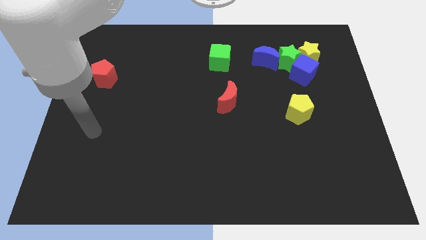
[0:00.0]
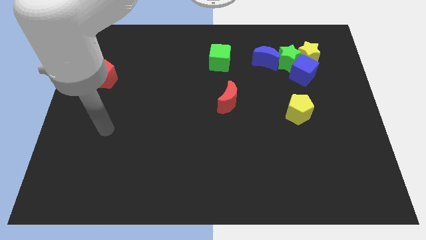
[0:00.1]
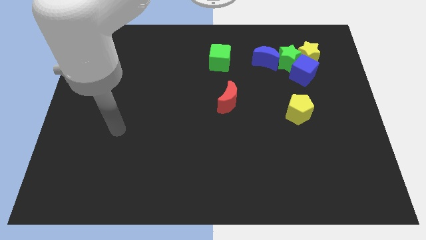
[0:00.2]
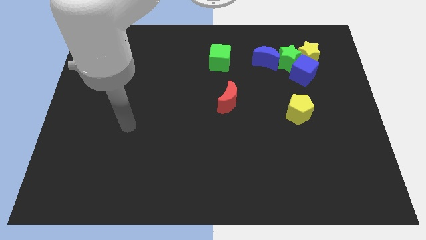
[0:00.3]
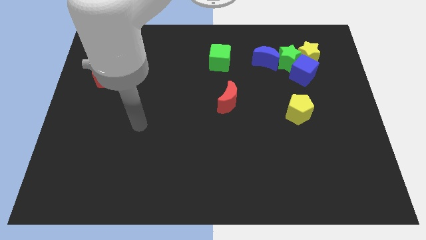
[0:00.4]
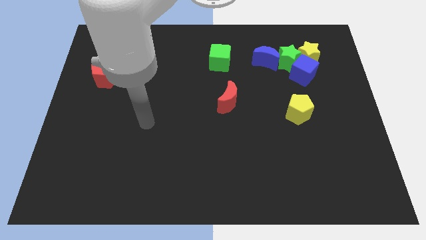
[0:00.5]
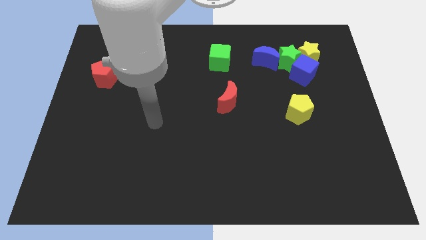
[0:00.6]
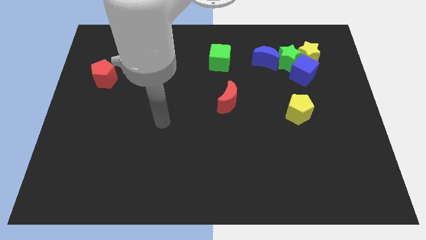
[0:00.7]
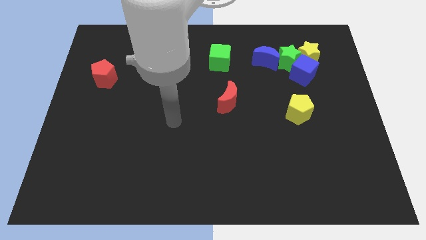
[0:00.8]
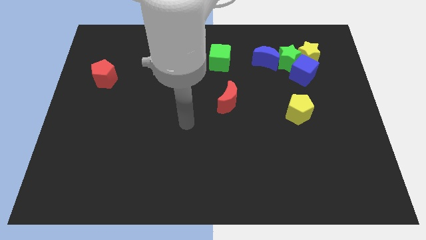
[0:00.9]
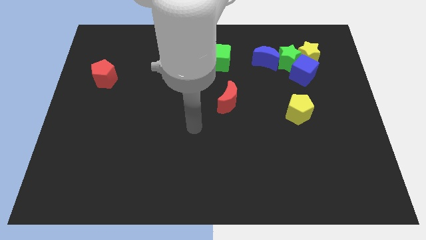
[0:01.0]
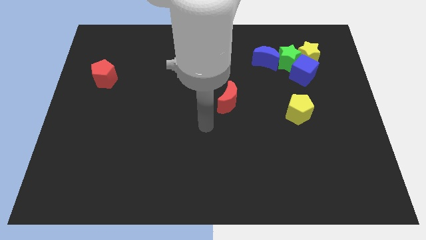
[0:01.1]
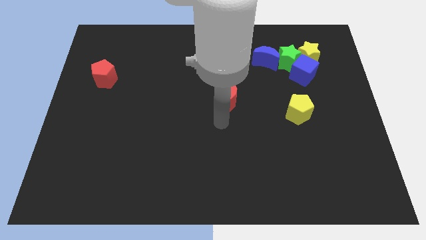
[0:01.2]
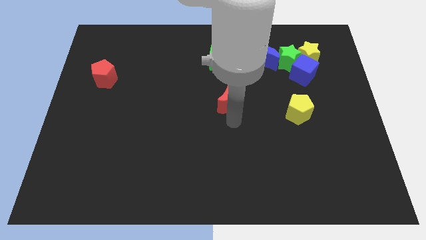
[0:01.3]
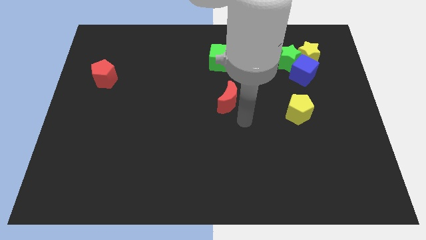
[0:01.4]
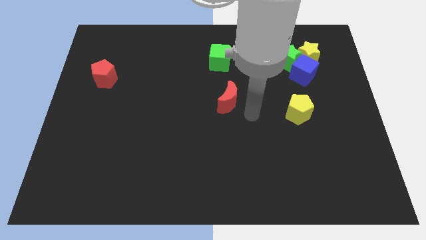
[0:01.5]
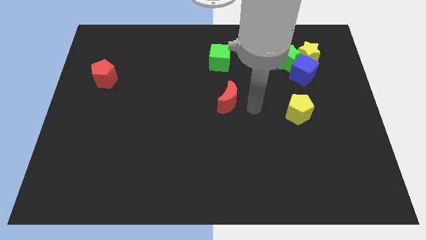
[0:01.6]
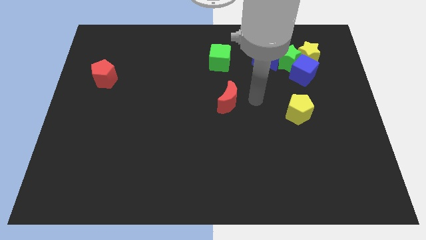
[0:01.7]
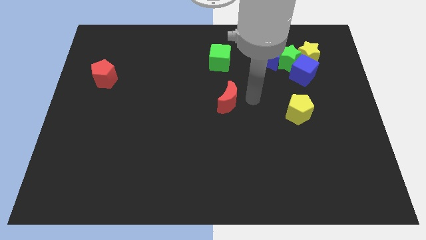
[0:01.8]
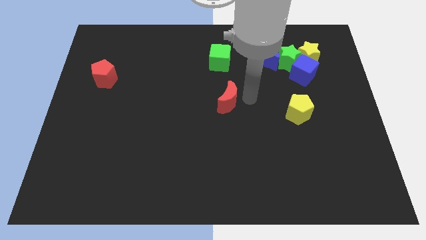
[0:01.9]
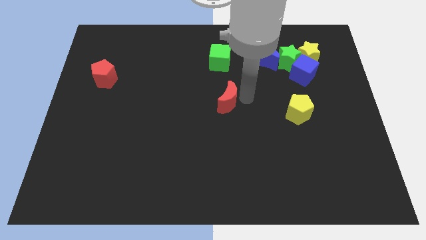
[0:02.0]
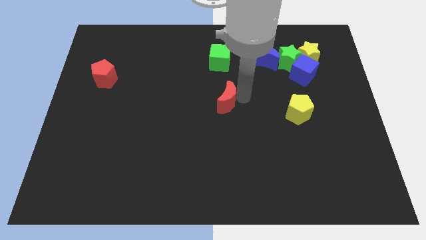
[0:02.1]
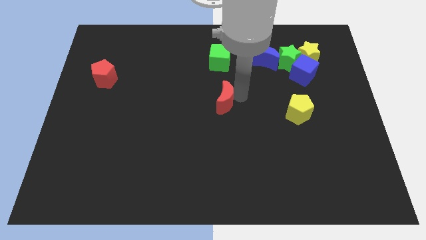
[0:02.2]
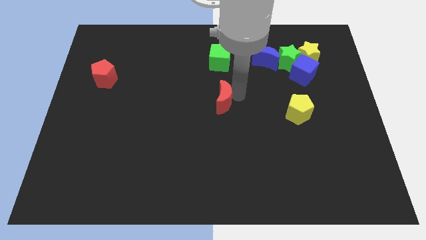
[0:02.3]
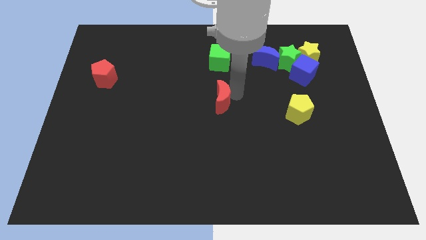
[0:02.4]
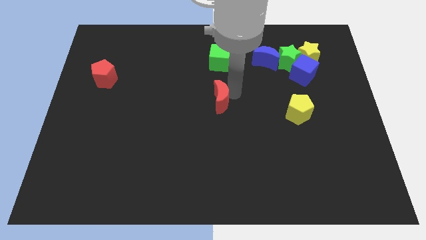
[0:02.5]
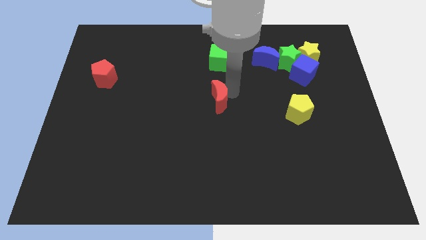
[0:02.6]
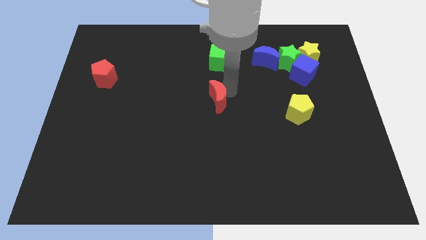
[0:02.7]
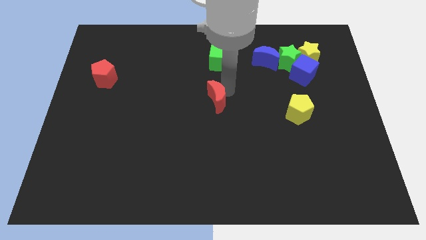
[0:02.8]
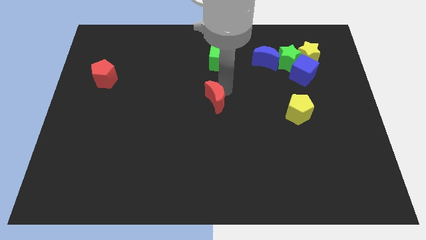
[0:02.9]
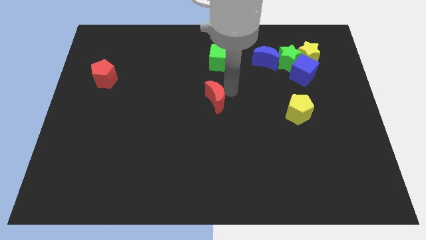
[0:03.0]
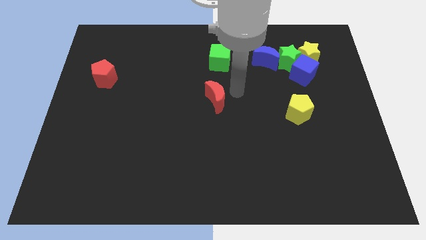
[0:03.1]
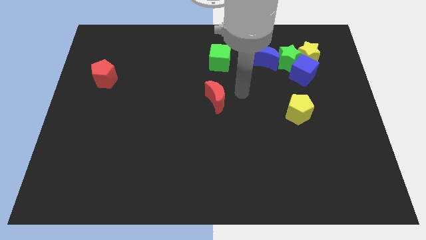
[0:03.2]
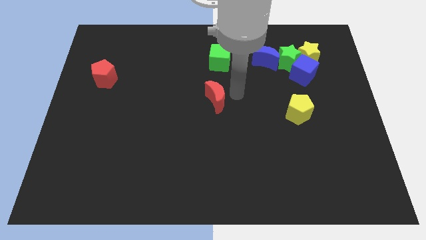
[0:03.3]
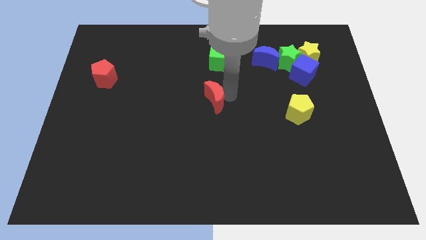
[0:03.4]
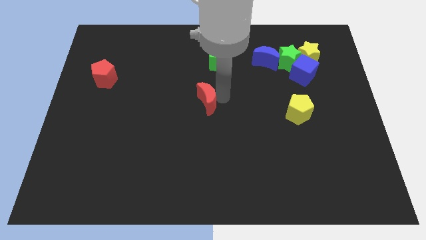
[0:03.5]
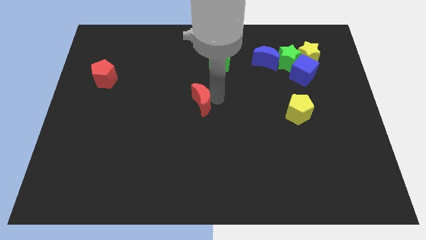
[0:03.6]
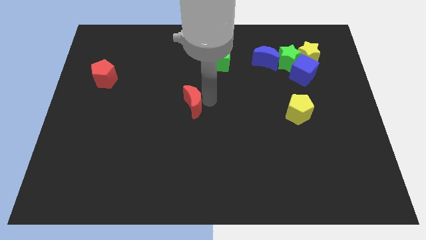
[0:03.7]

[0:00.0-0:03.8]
slide the red moon left a little bit

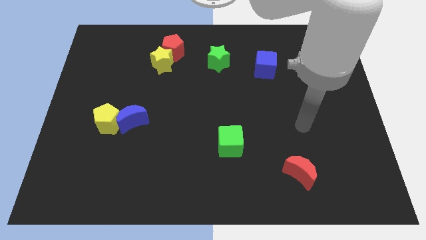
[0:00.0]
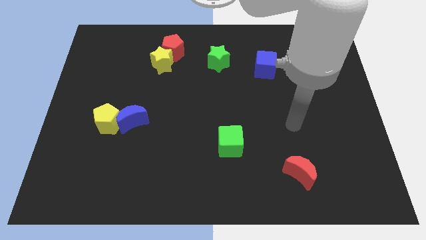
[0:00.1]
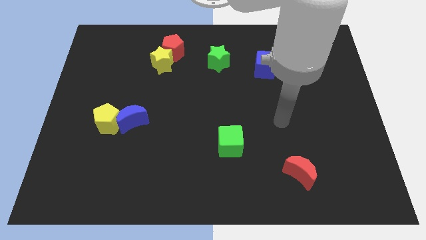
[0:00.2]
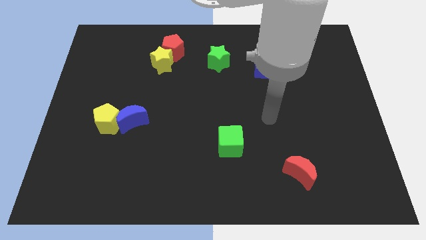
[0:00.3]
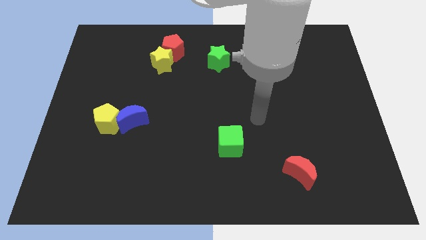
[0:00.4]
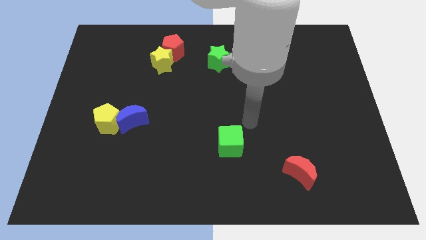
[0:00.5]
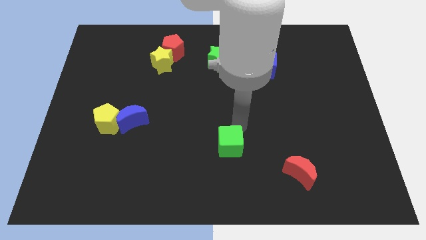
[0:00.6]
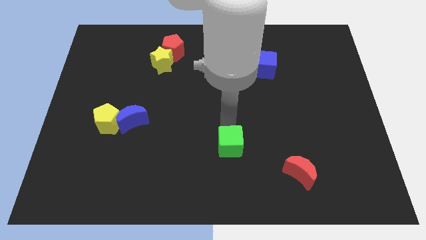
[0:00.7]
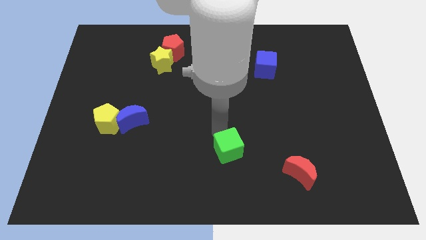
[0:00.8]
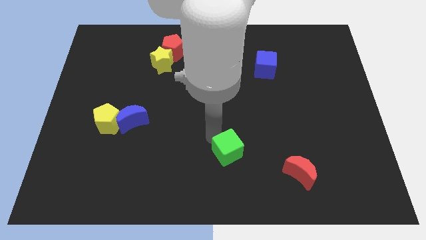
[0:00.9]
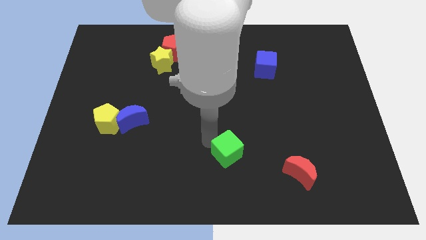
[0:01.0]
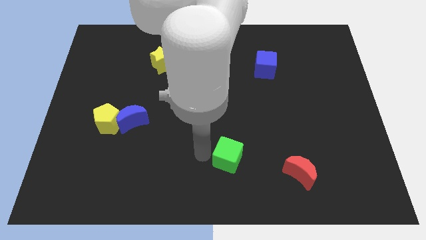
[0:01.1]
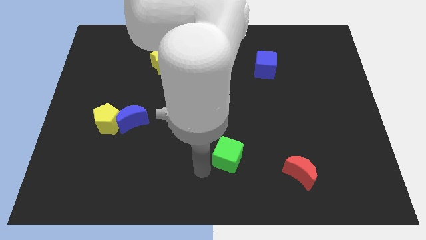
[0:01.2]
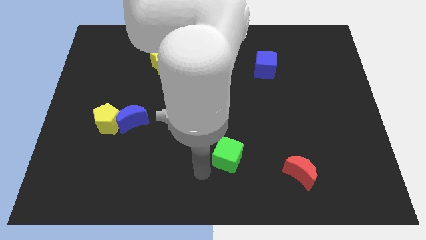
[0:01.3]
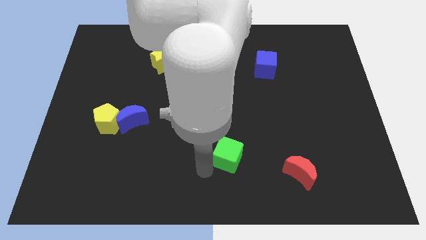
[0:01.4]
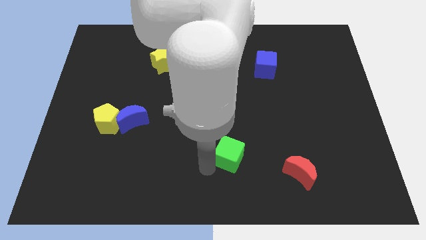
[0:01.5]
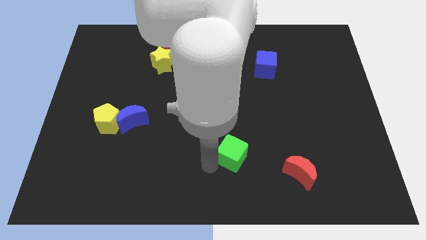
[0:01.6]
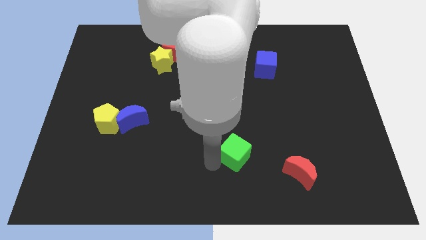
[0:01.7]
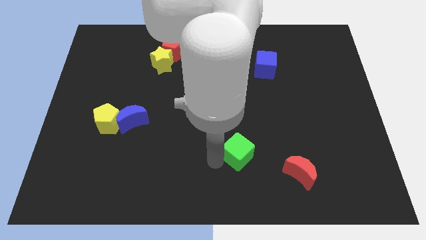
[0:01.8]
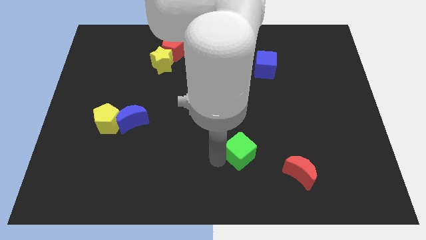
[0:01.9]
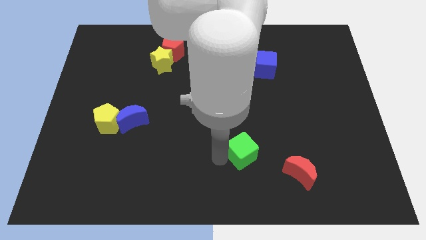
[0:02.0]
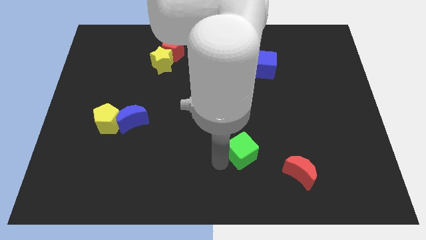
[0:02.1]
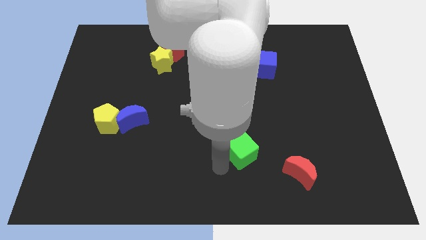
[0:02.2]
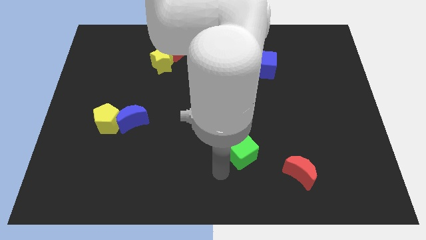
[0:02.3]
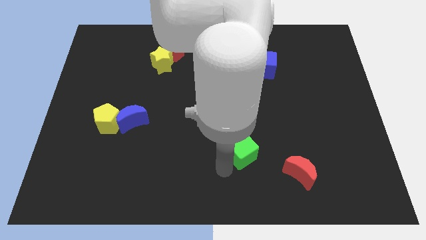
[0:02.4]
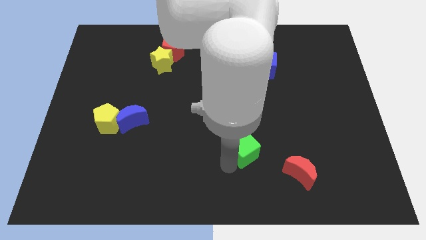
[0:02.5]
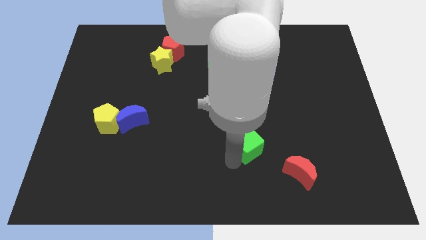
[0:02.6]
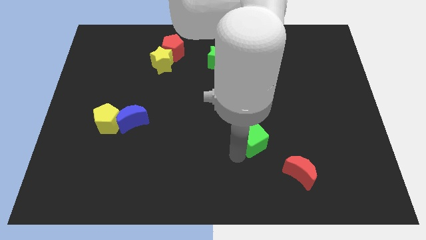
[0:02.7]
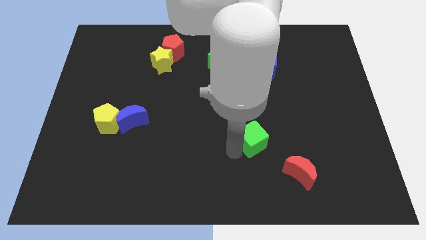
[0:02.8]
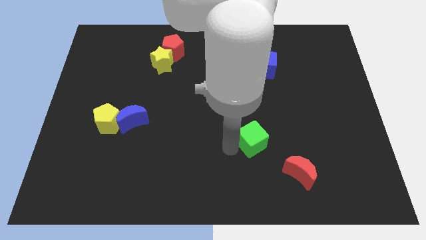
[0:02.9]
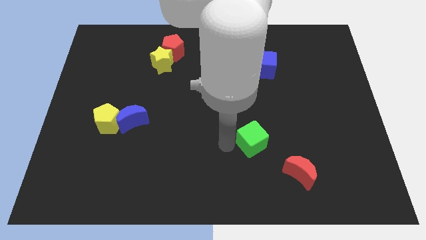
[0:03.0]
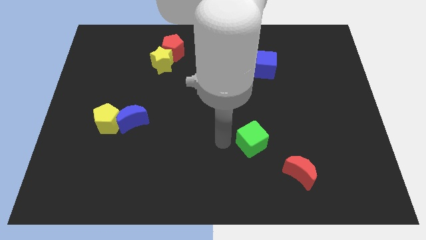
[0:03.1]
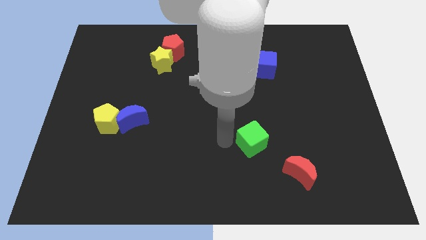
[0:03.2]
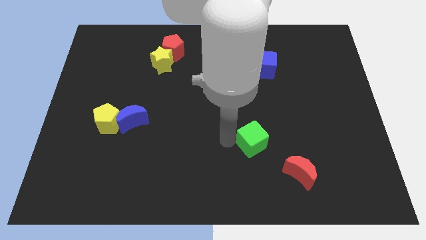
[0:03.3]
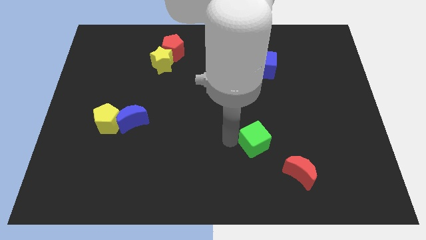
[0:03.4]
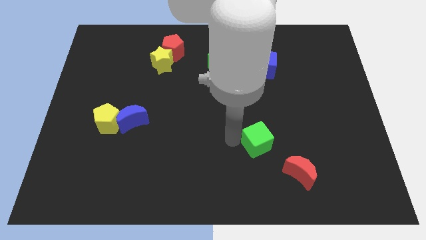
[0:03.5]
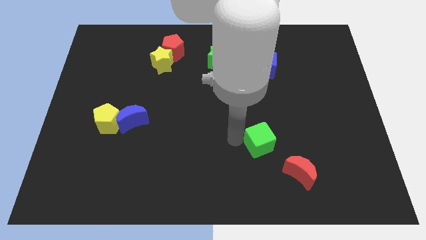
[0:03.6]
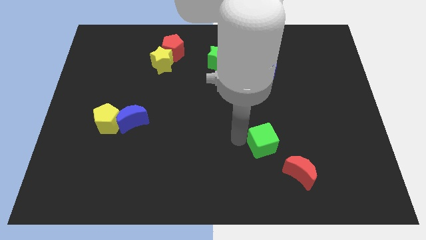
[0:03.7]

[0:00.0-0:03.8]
push the green cube right a little bit

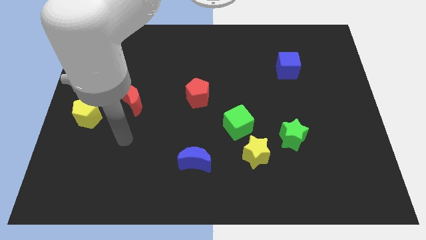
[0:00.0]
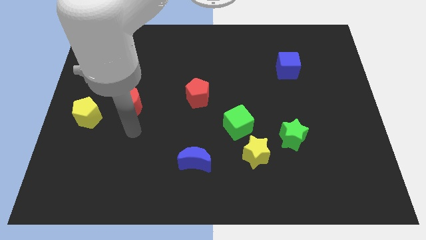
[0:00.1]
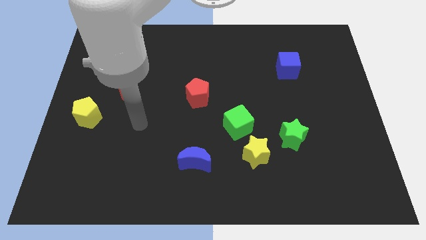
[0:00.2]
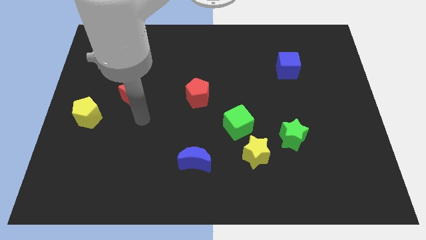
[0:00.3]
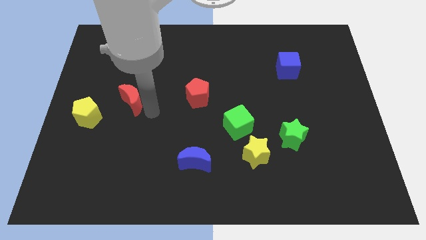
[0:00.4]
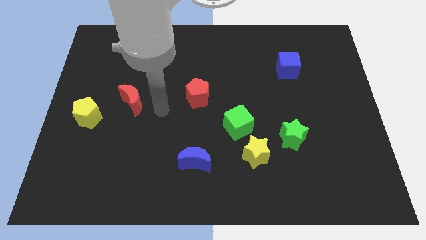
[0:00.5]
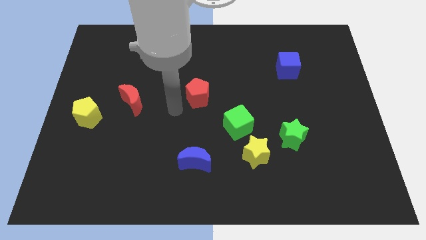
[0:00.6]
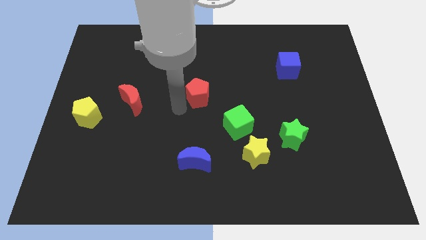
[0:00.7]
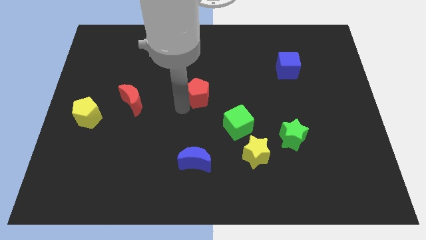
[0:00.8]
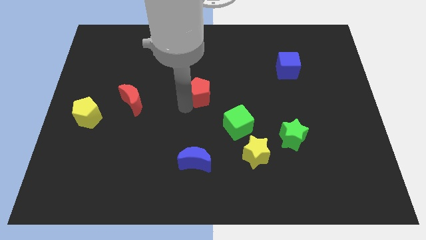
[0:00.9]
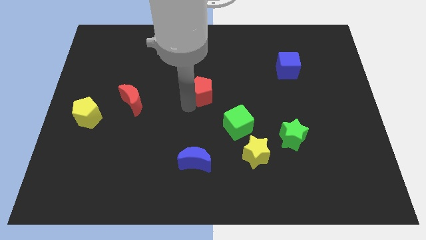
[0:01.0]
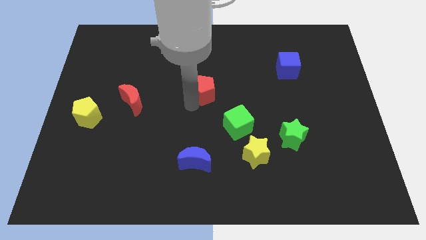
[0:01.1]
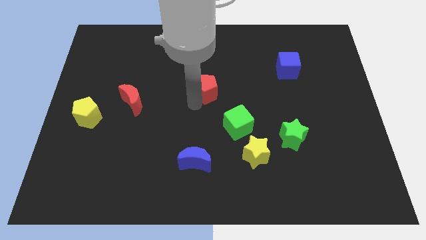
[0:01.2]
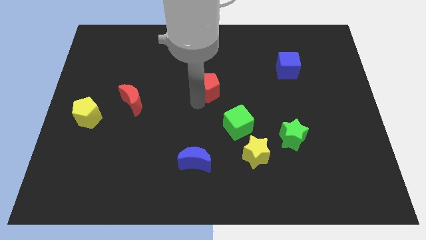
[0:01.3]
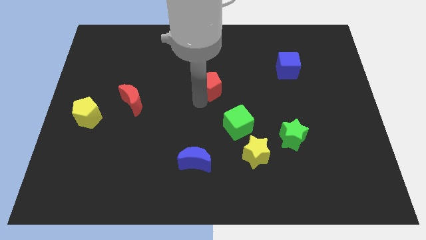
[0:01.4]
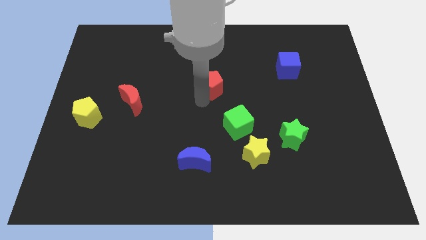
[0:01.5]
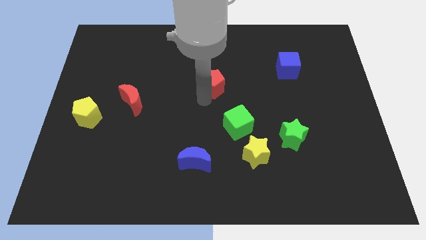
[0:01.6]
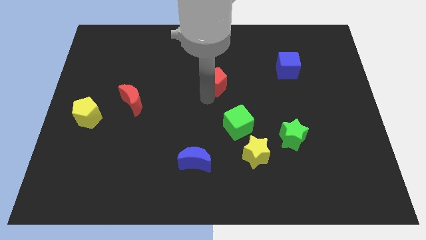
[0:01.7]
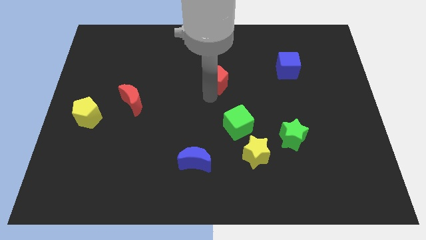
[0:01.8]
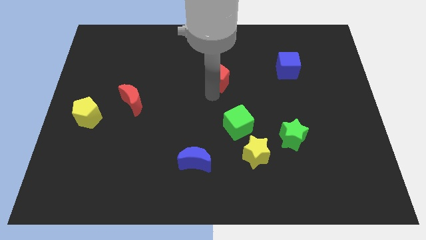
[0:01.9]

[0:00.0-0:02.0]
slide the red pentagon upwards and then right a little bit
